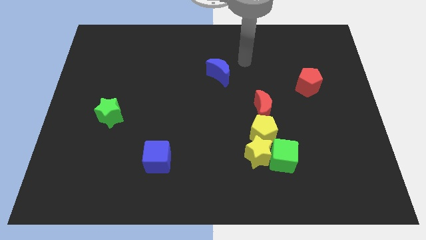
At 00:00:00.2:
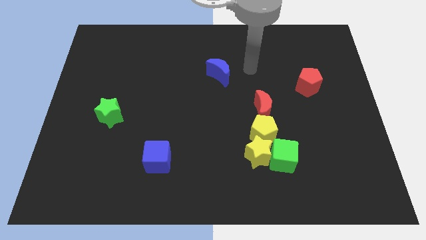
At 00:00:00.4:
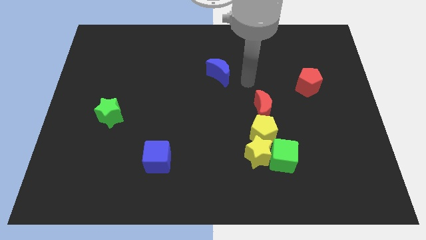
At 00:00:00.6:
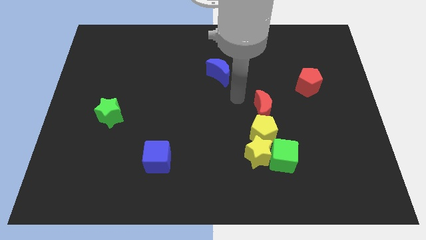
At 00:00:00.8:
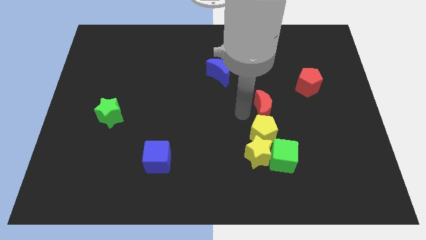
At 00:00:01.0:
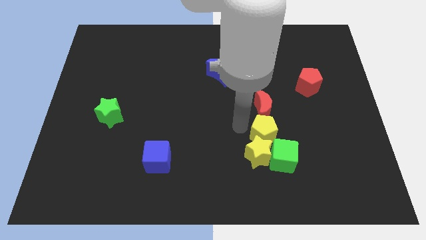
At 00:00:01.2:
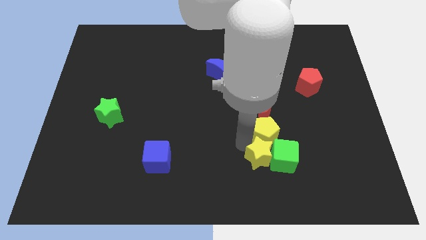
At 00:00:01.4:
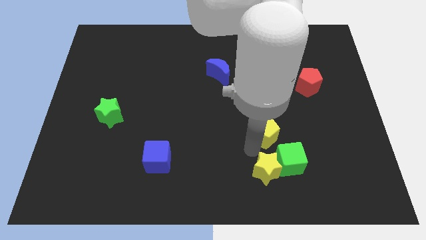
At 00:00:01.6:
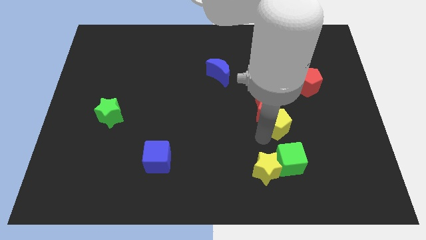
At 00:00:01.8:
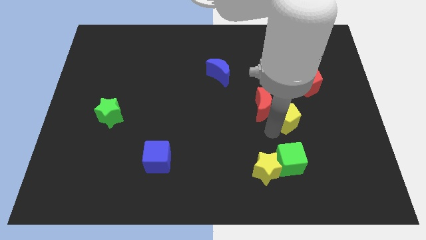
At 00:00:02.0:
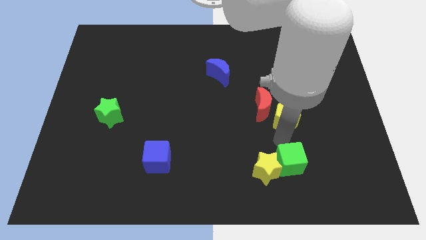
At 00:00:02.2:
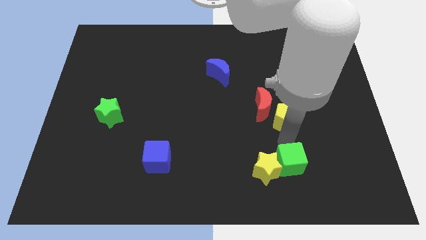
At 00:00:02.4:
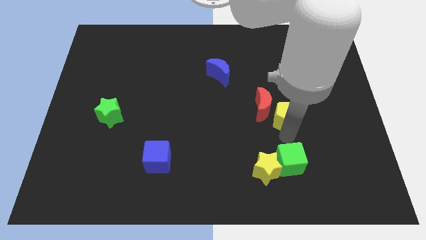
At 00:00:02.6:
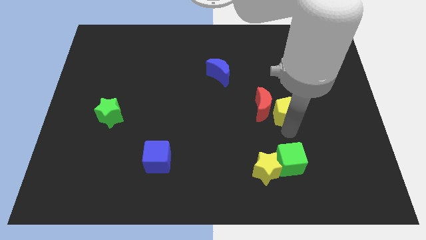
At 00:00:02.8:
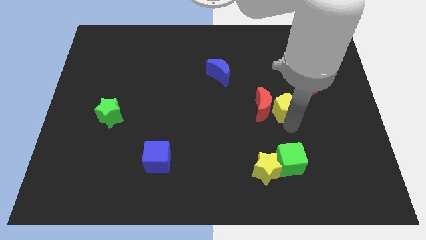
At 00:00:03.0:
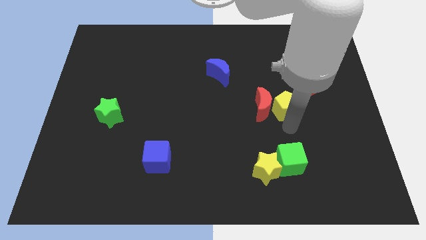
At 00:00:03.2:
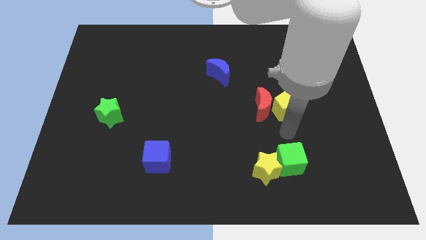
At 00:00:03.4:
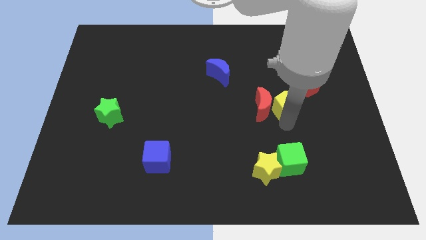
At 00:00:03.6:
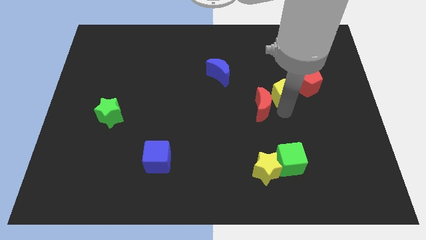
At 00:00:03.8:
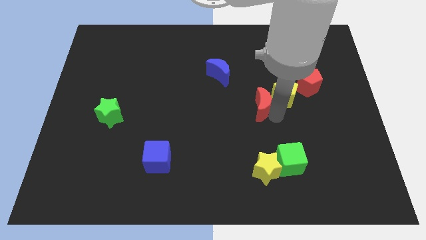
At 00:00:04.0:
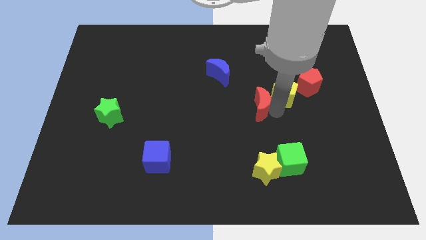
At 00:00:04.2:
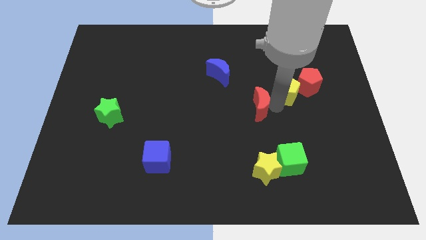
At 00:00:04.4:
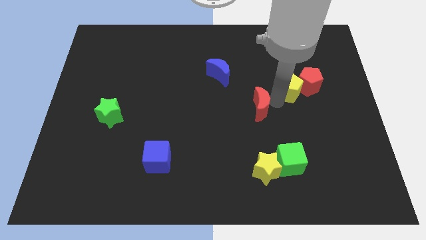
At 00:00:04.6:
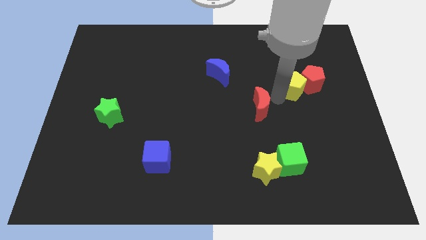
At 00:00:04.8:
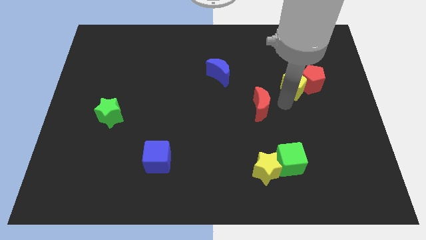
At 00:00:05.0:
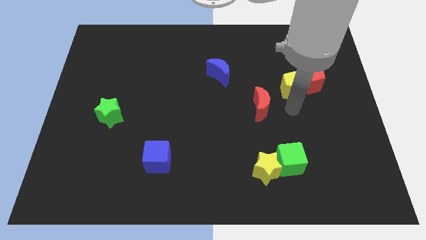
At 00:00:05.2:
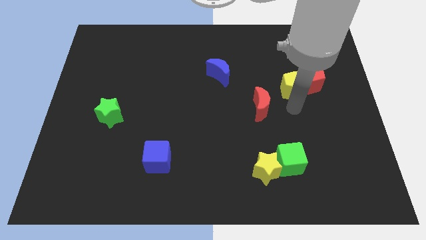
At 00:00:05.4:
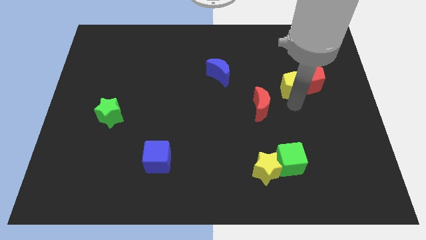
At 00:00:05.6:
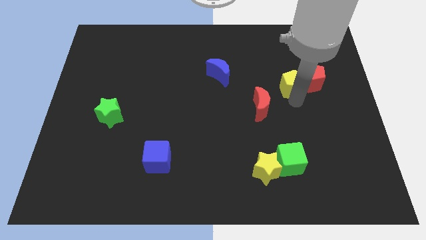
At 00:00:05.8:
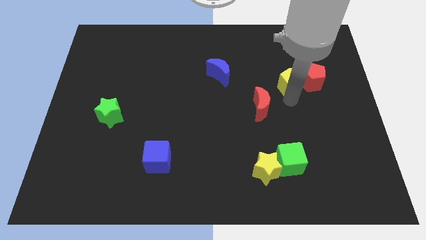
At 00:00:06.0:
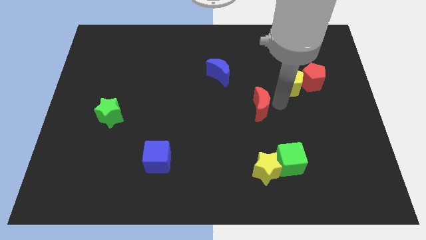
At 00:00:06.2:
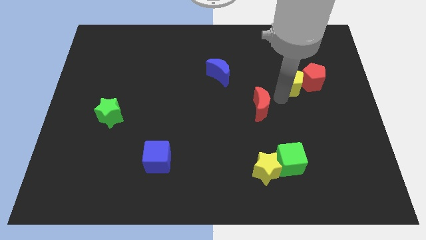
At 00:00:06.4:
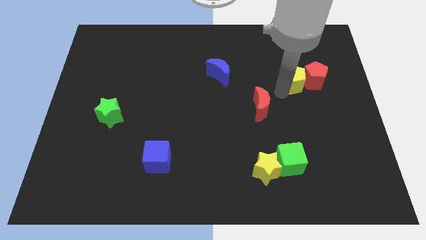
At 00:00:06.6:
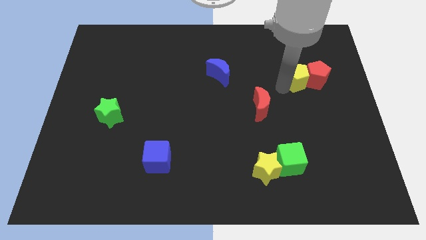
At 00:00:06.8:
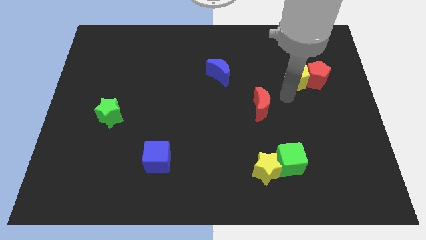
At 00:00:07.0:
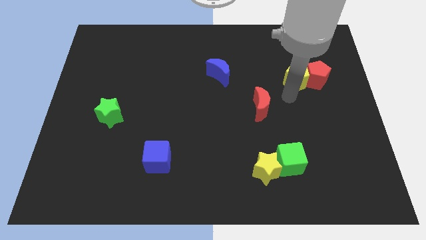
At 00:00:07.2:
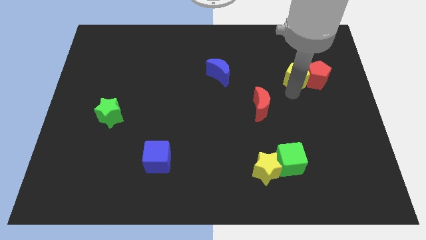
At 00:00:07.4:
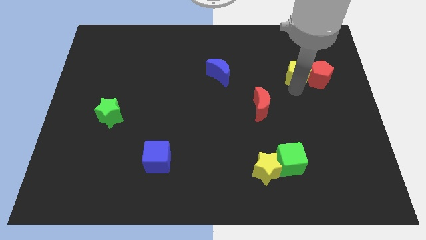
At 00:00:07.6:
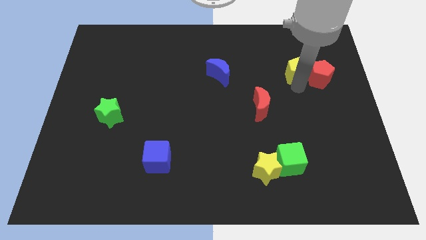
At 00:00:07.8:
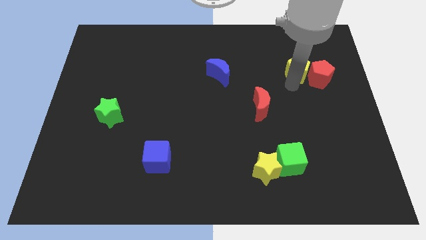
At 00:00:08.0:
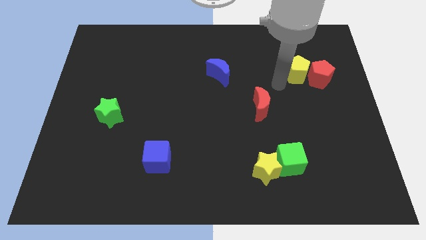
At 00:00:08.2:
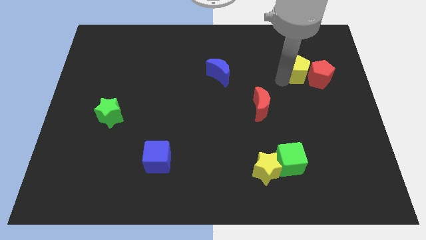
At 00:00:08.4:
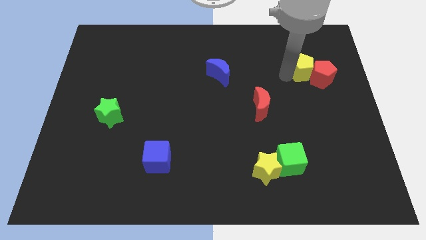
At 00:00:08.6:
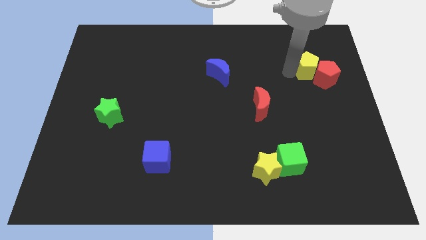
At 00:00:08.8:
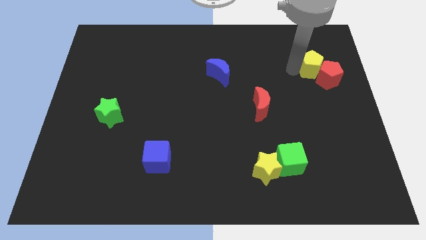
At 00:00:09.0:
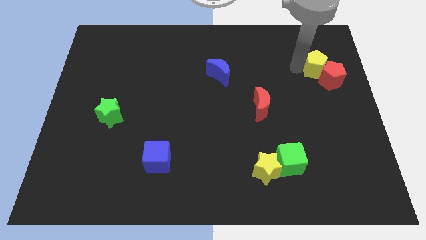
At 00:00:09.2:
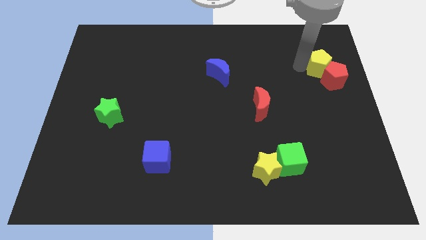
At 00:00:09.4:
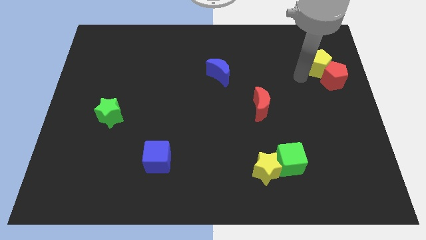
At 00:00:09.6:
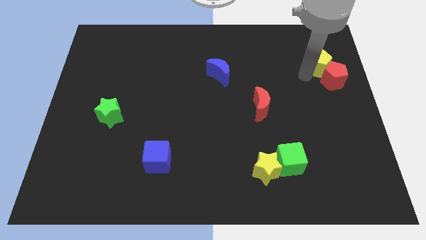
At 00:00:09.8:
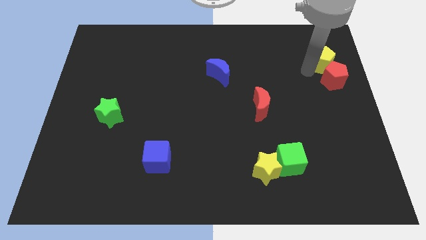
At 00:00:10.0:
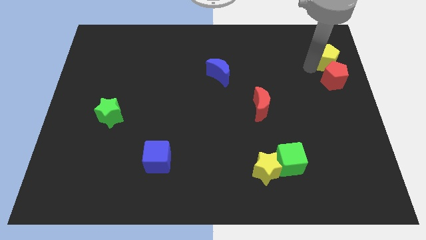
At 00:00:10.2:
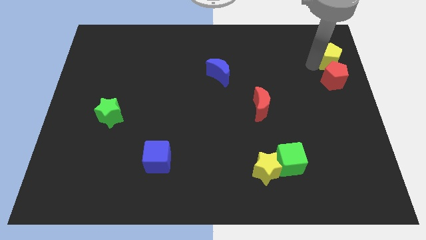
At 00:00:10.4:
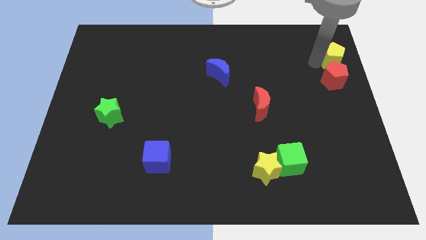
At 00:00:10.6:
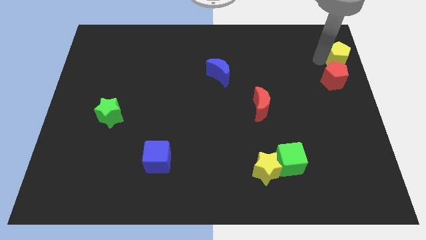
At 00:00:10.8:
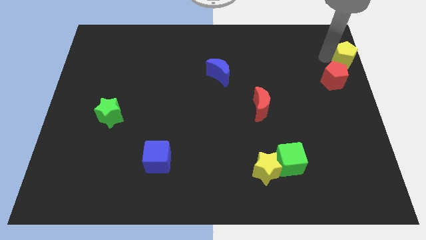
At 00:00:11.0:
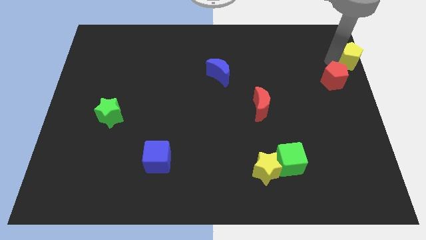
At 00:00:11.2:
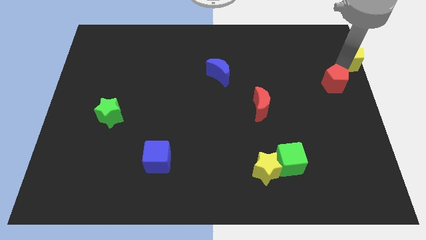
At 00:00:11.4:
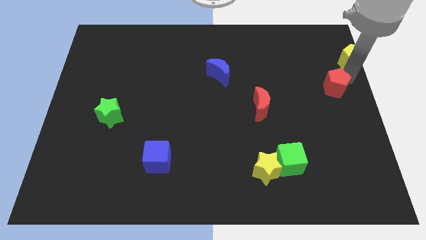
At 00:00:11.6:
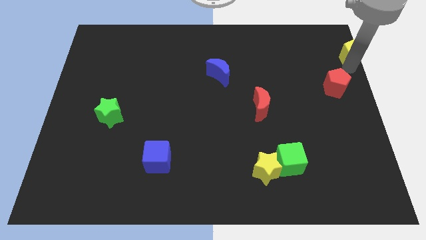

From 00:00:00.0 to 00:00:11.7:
push the yellow pentagon to the top right

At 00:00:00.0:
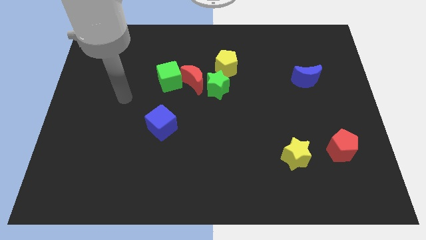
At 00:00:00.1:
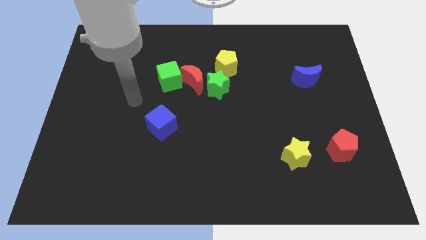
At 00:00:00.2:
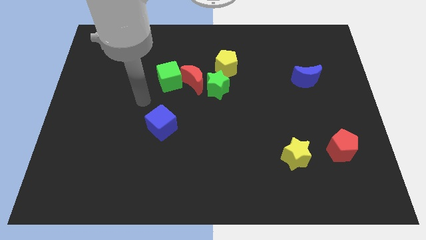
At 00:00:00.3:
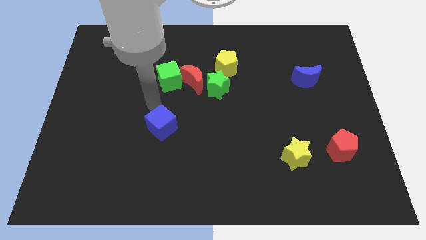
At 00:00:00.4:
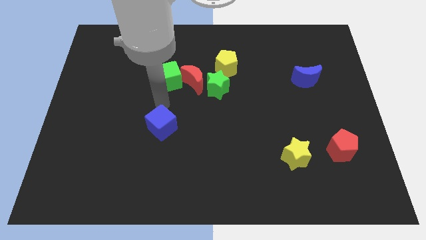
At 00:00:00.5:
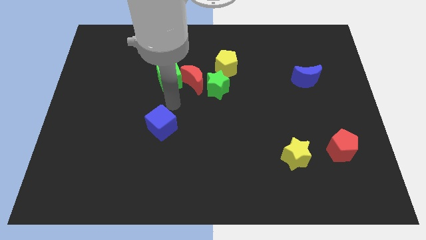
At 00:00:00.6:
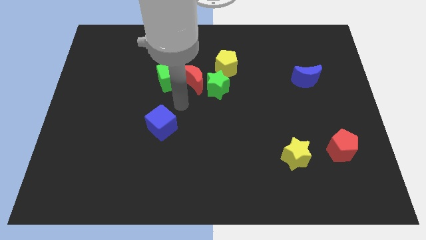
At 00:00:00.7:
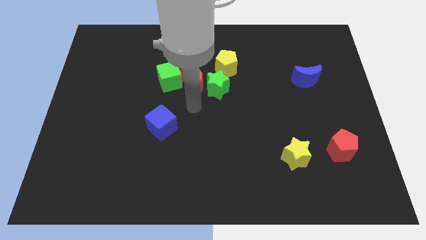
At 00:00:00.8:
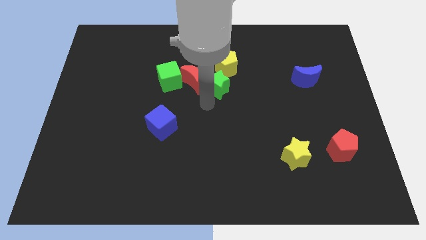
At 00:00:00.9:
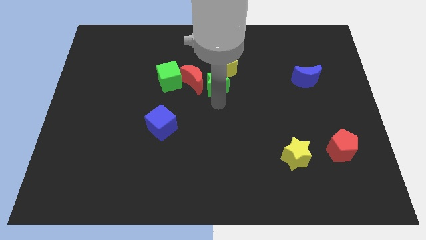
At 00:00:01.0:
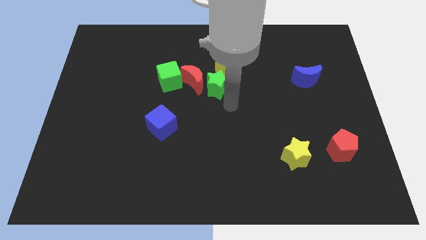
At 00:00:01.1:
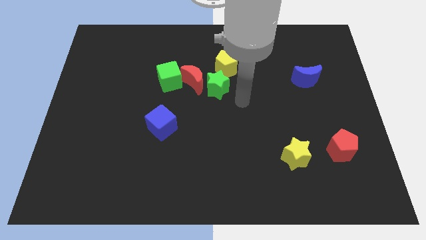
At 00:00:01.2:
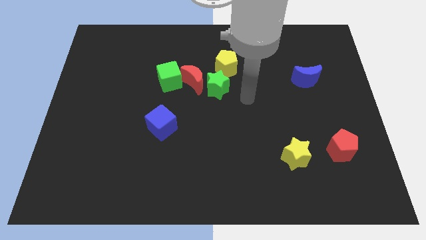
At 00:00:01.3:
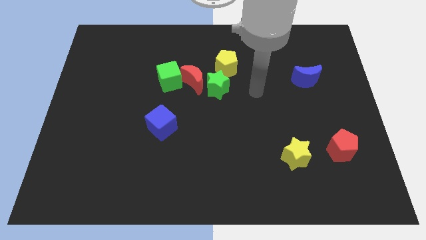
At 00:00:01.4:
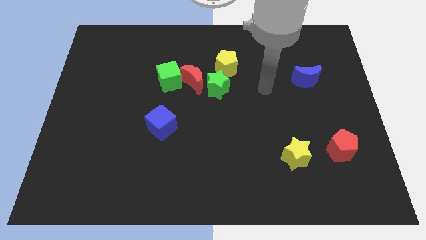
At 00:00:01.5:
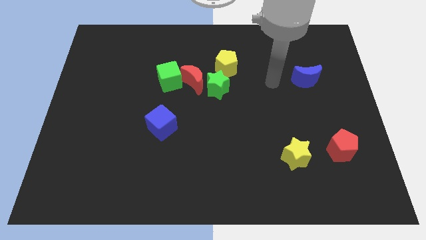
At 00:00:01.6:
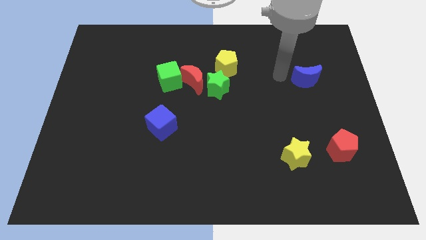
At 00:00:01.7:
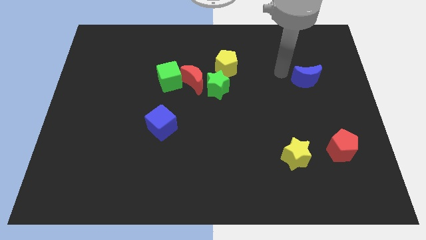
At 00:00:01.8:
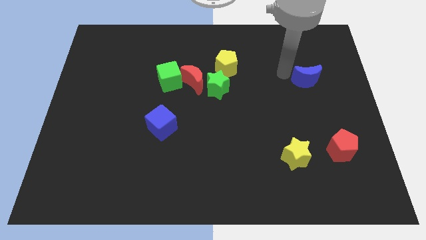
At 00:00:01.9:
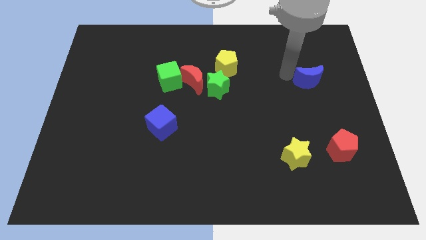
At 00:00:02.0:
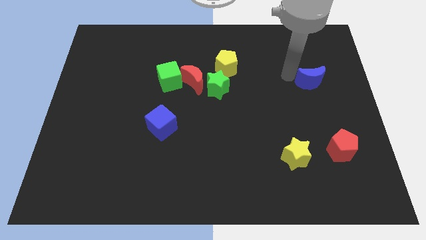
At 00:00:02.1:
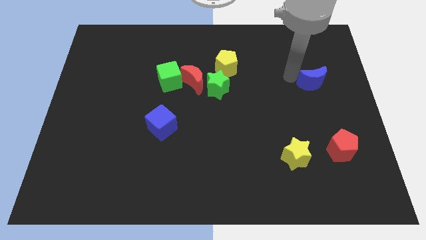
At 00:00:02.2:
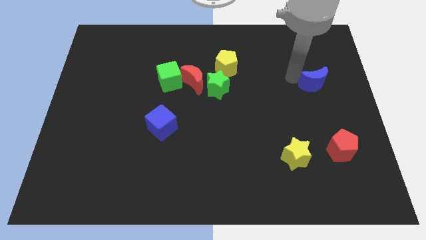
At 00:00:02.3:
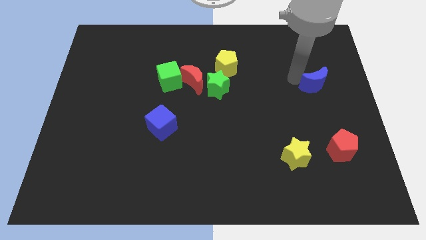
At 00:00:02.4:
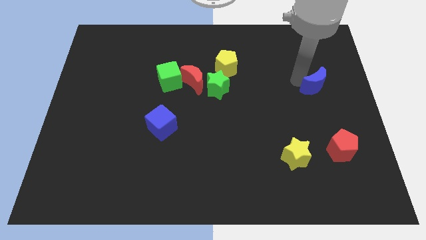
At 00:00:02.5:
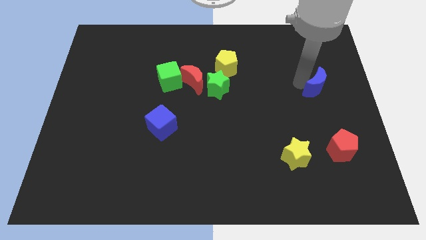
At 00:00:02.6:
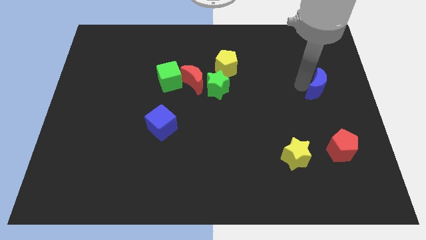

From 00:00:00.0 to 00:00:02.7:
slide the blue moon to the right side
